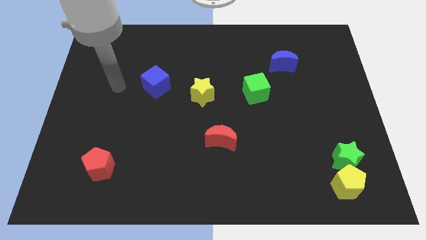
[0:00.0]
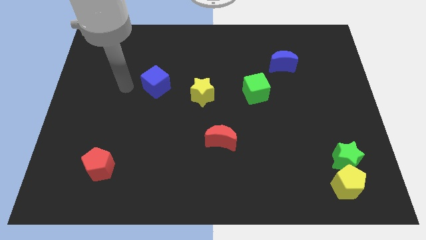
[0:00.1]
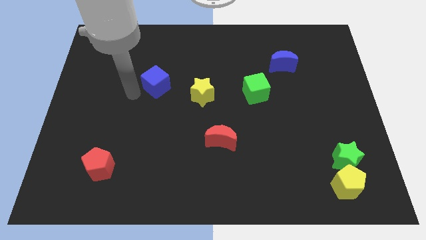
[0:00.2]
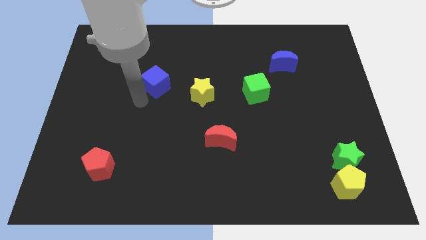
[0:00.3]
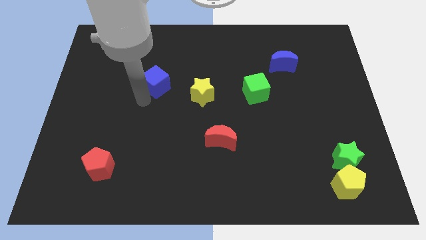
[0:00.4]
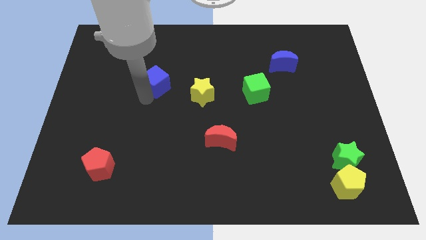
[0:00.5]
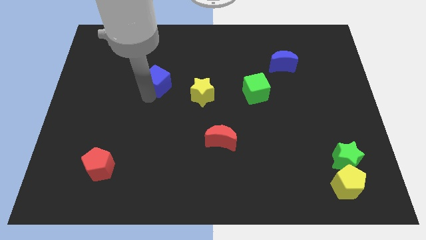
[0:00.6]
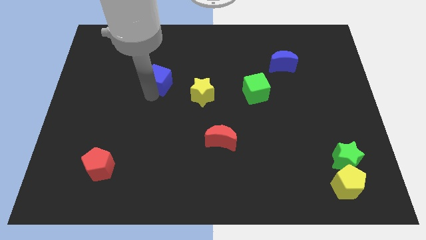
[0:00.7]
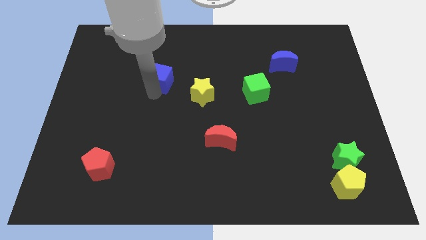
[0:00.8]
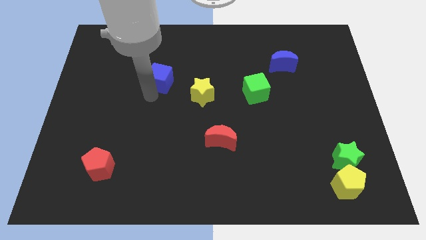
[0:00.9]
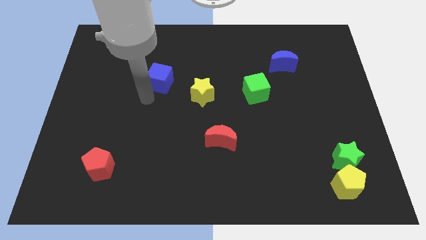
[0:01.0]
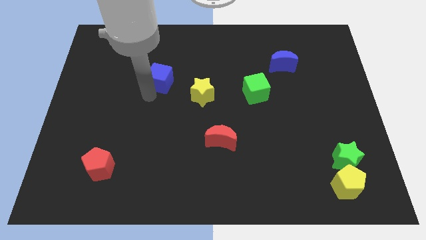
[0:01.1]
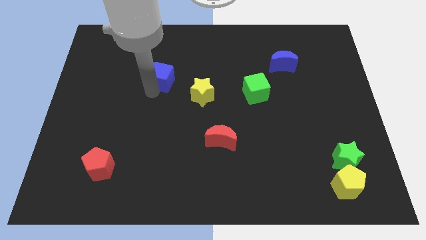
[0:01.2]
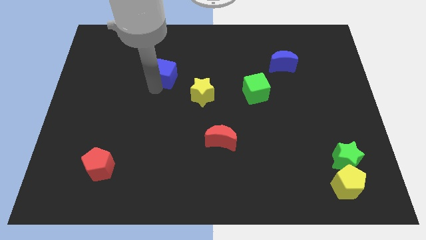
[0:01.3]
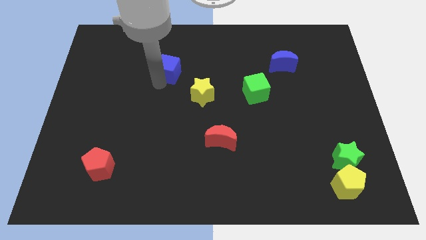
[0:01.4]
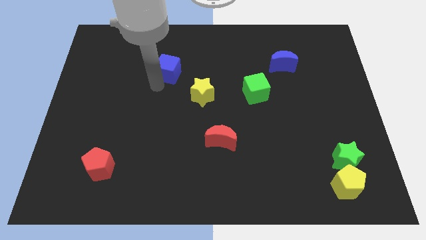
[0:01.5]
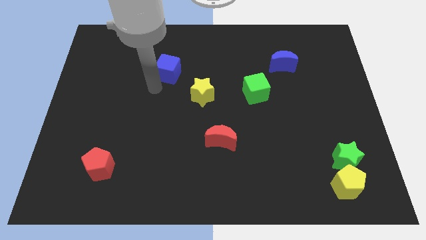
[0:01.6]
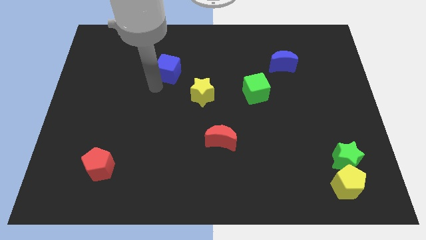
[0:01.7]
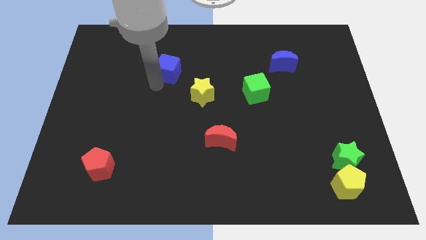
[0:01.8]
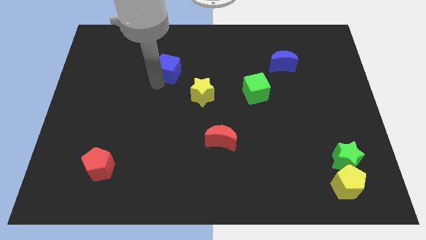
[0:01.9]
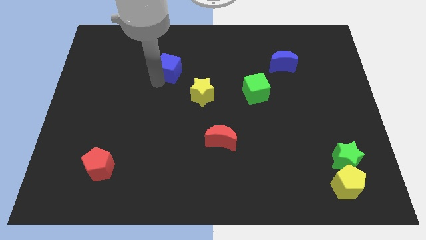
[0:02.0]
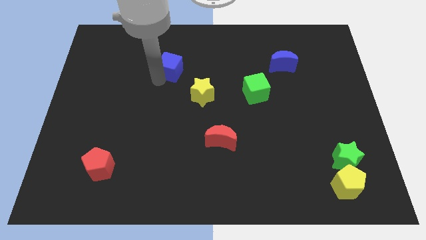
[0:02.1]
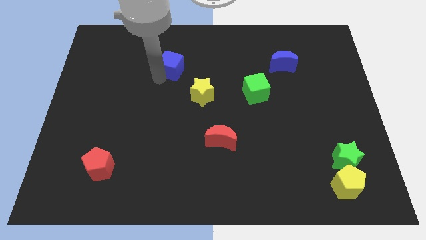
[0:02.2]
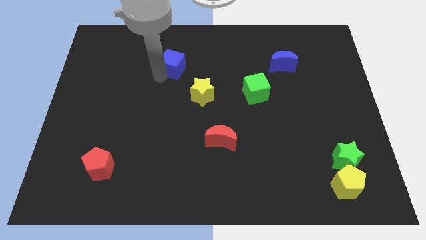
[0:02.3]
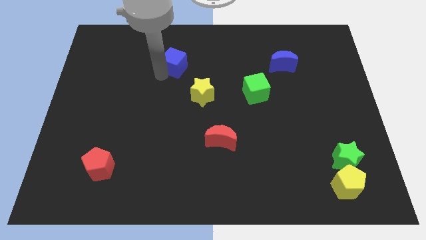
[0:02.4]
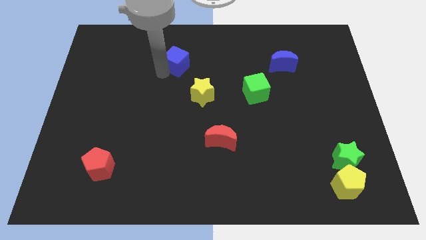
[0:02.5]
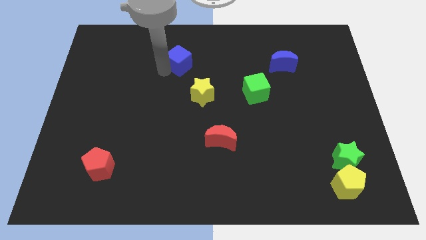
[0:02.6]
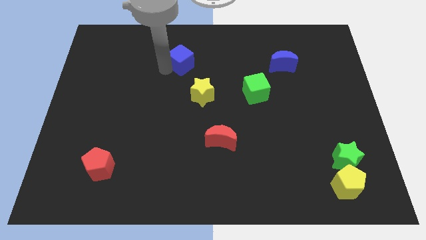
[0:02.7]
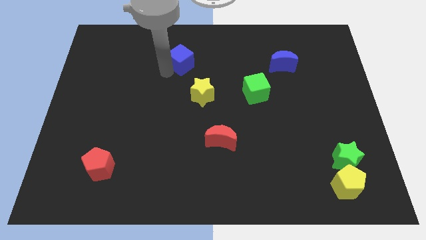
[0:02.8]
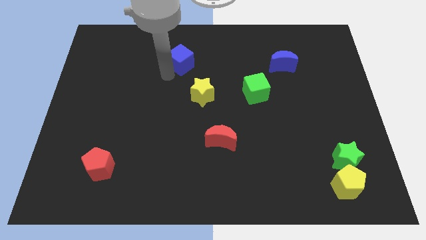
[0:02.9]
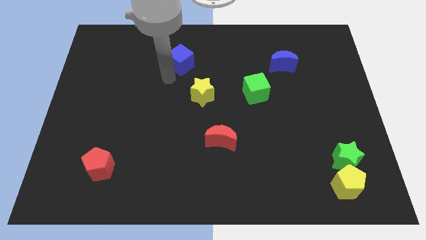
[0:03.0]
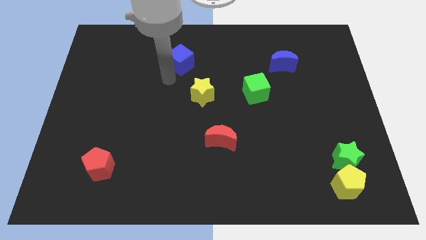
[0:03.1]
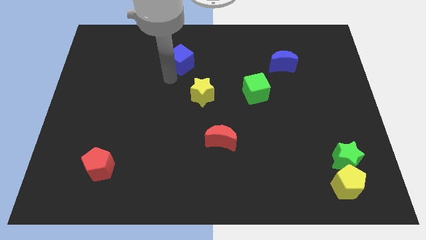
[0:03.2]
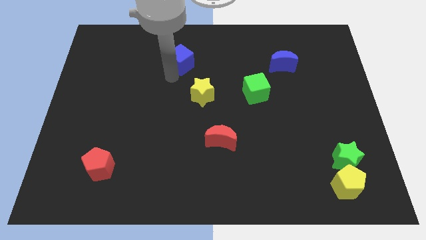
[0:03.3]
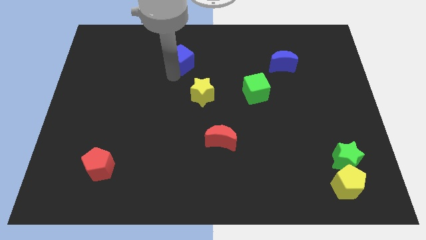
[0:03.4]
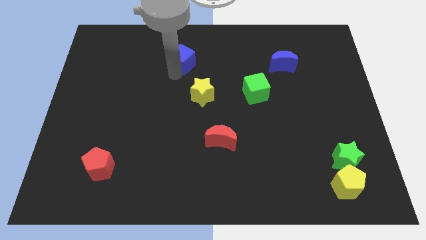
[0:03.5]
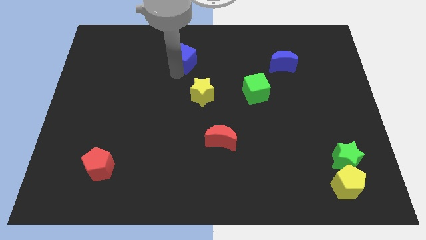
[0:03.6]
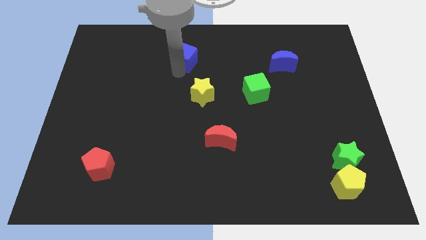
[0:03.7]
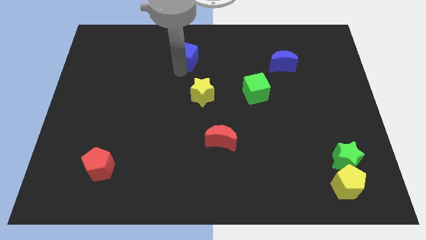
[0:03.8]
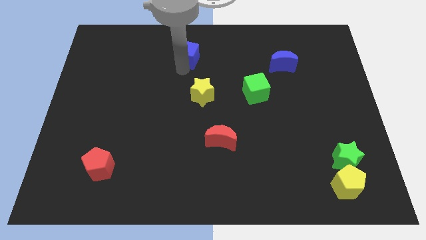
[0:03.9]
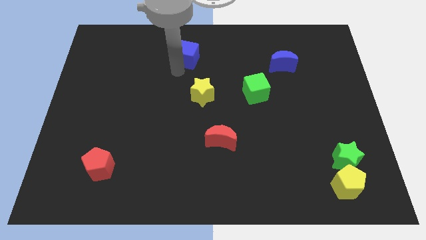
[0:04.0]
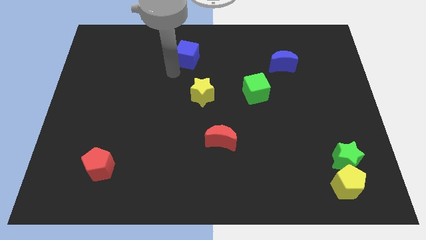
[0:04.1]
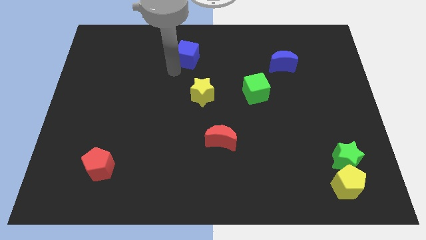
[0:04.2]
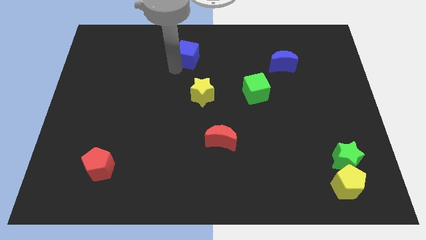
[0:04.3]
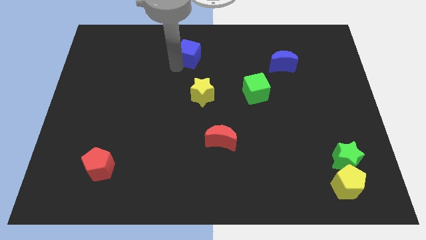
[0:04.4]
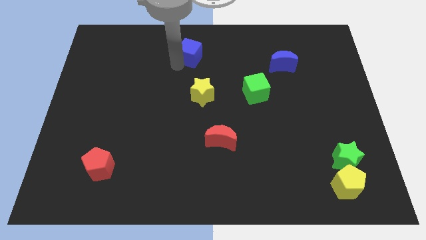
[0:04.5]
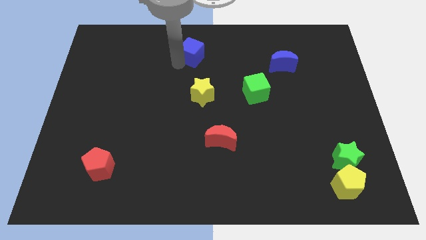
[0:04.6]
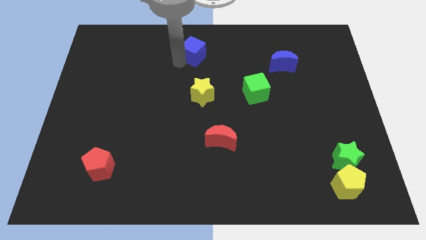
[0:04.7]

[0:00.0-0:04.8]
push the blue cube to the towards your base

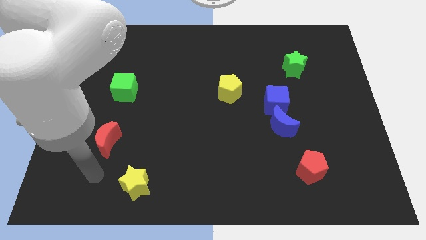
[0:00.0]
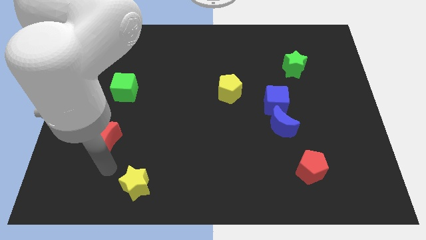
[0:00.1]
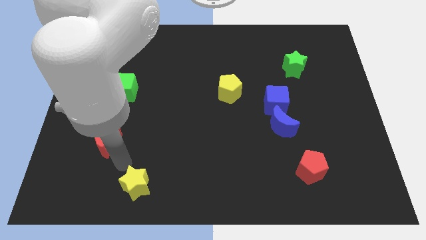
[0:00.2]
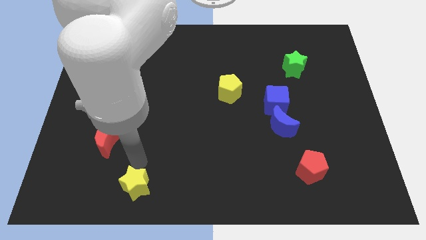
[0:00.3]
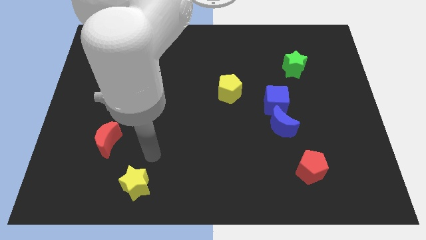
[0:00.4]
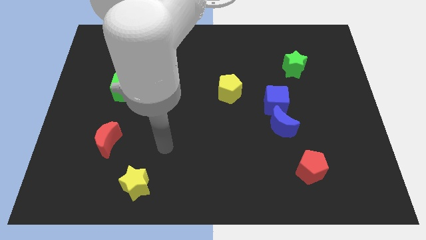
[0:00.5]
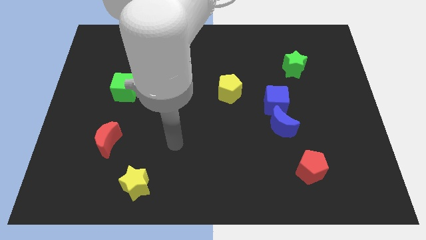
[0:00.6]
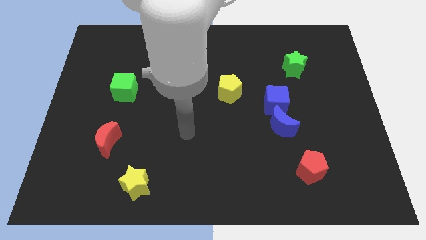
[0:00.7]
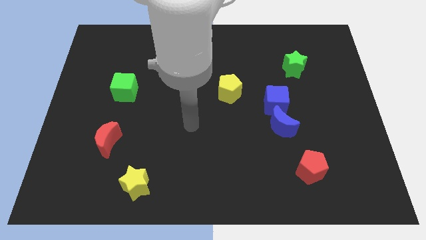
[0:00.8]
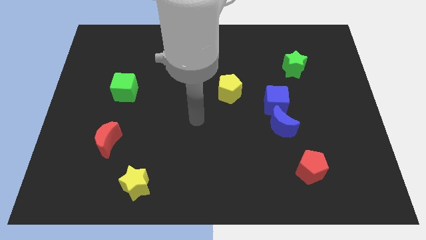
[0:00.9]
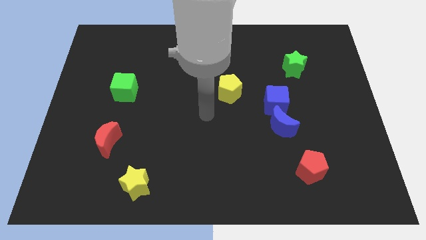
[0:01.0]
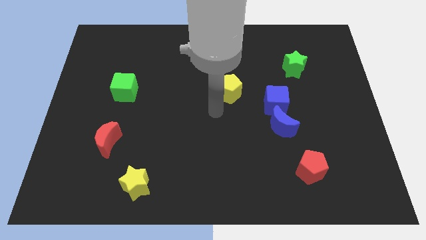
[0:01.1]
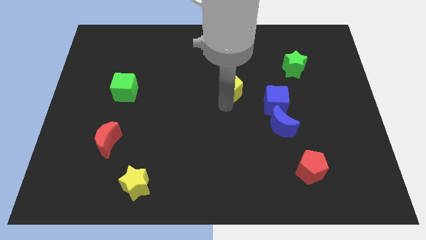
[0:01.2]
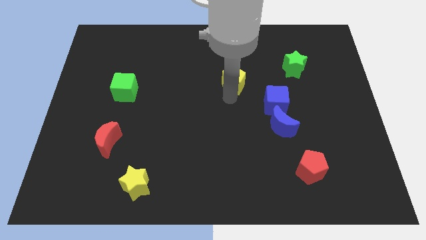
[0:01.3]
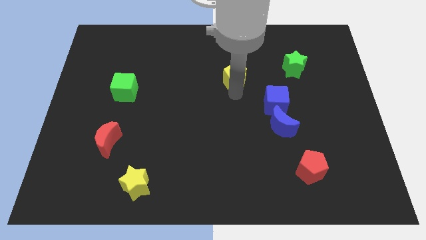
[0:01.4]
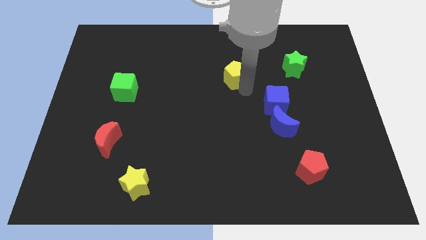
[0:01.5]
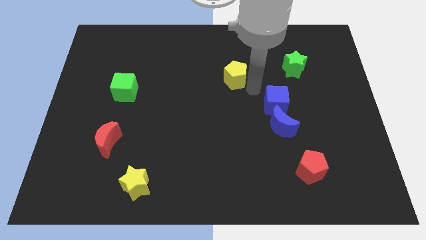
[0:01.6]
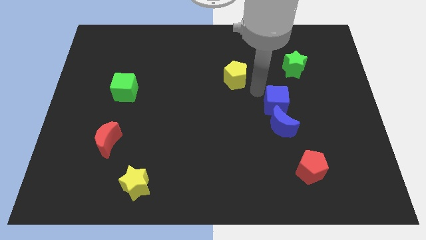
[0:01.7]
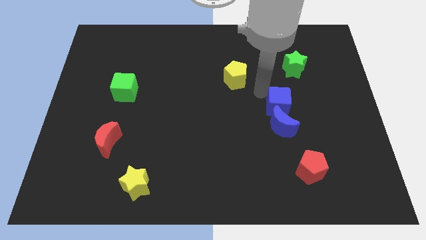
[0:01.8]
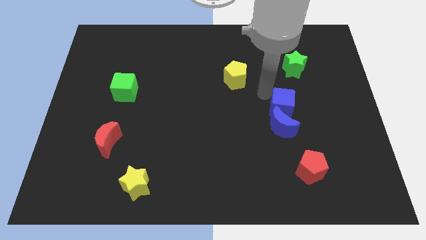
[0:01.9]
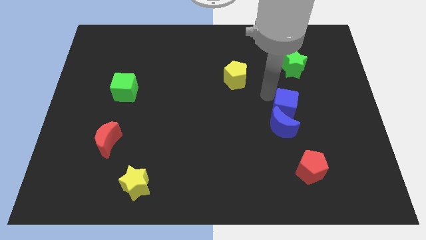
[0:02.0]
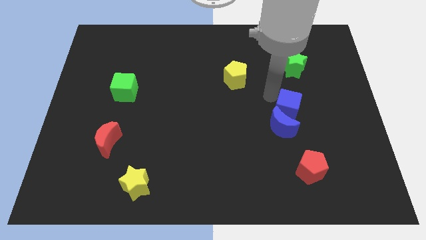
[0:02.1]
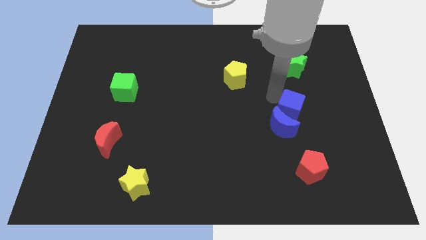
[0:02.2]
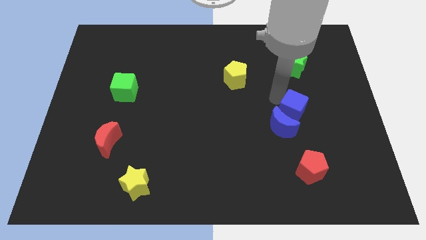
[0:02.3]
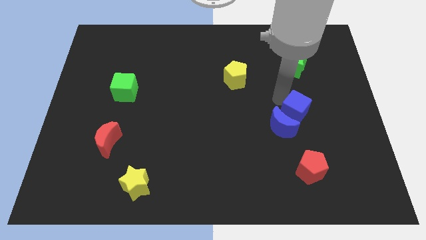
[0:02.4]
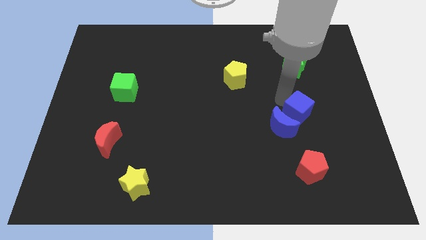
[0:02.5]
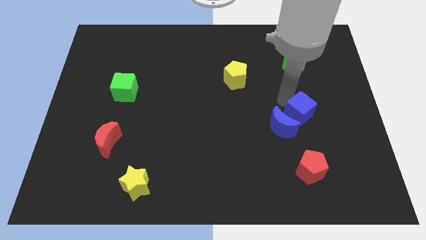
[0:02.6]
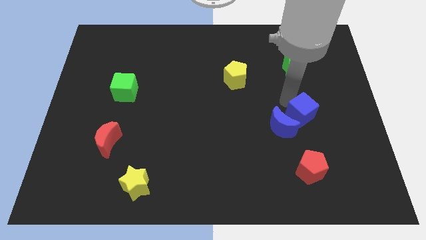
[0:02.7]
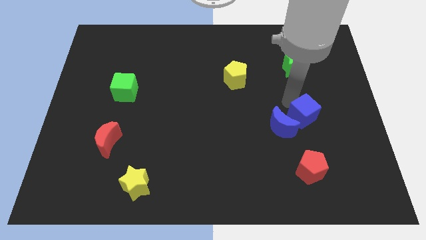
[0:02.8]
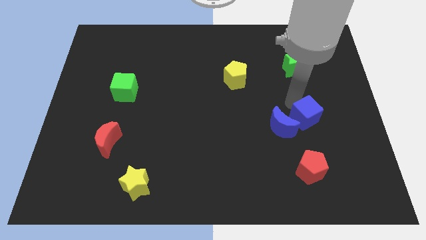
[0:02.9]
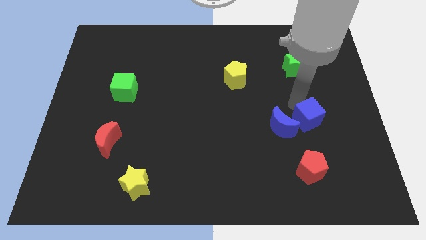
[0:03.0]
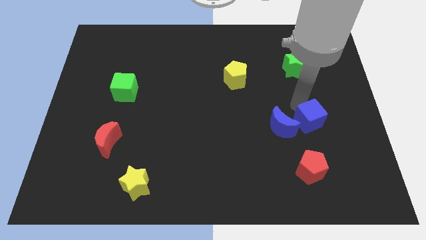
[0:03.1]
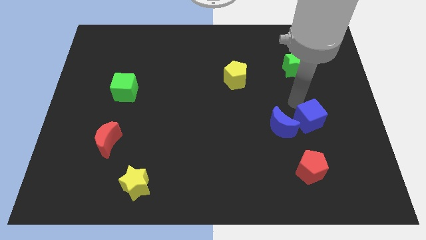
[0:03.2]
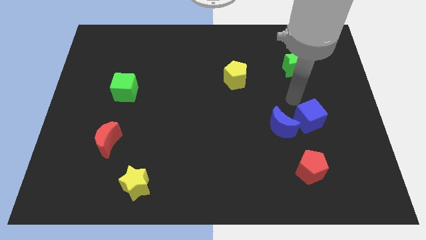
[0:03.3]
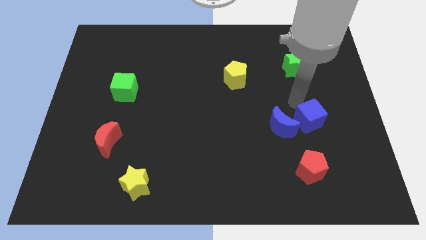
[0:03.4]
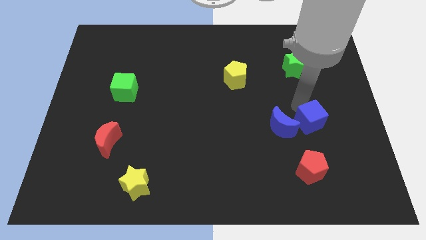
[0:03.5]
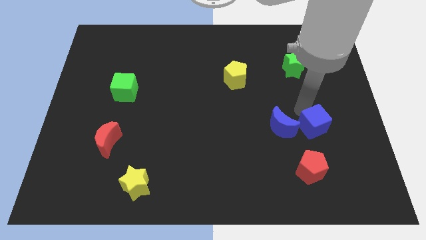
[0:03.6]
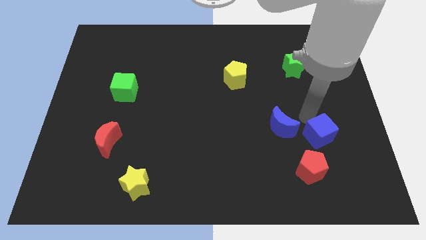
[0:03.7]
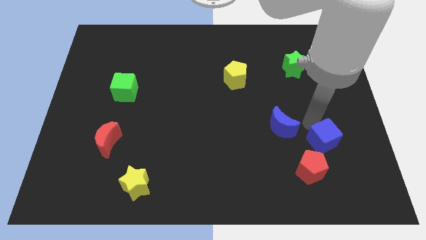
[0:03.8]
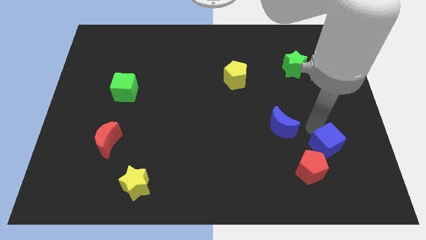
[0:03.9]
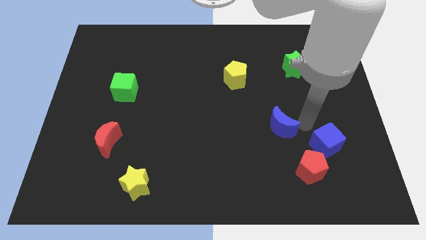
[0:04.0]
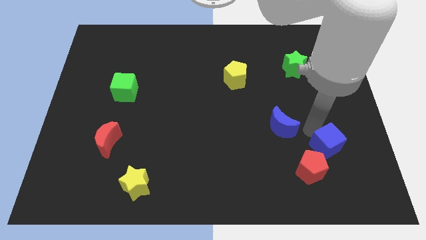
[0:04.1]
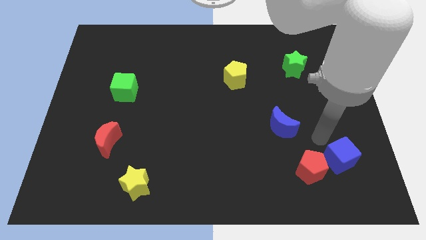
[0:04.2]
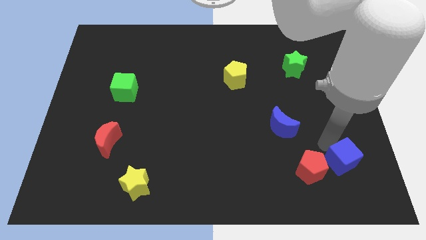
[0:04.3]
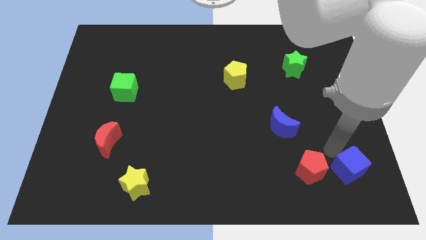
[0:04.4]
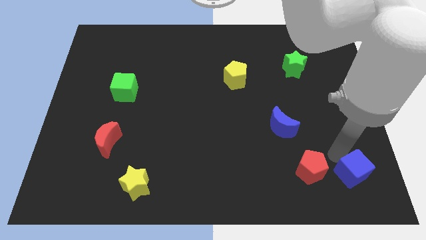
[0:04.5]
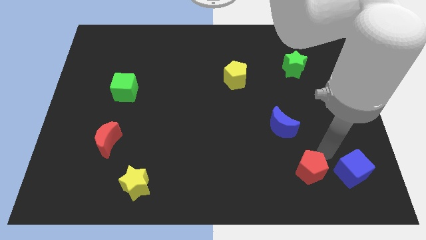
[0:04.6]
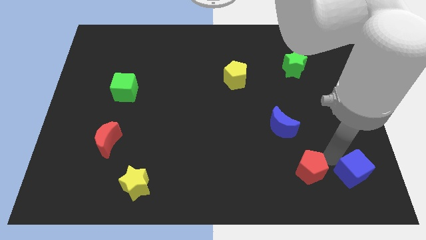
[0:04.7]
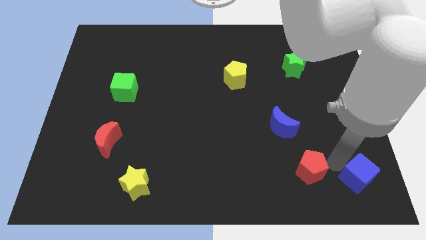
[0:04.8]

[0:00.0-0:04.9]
slide the blue cube to the lower right corner
